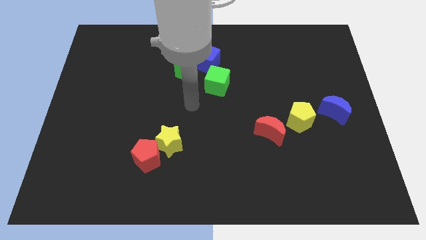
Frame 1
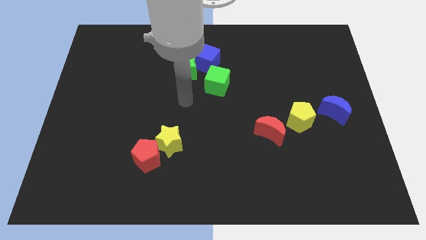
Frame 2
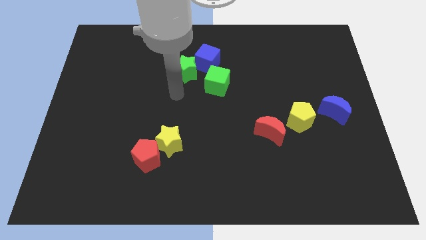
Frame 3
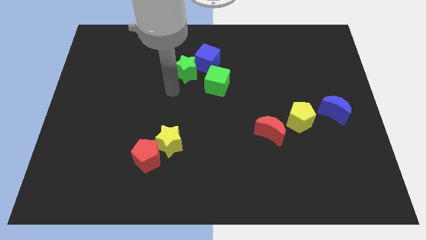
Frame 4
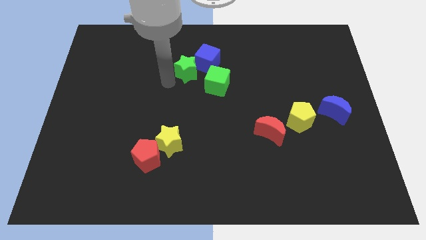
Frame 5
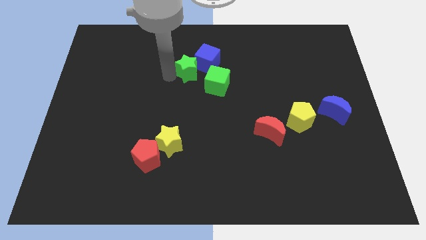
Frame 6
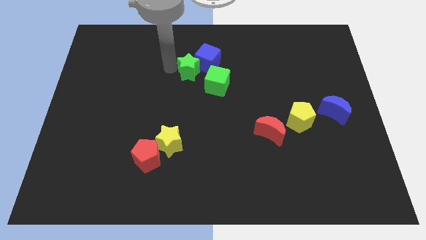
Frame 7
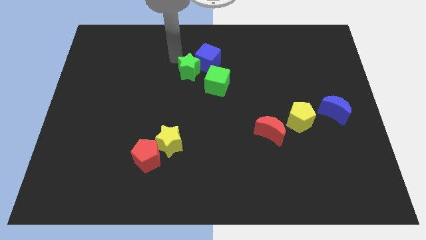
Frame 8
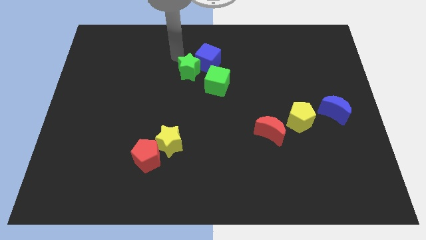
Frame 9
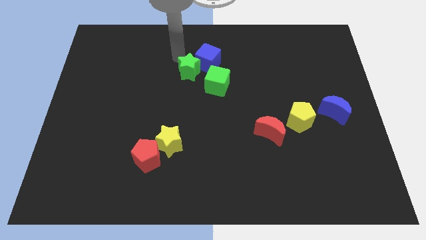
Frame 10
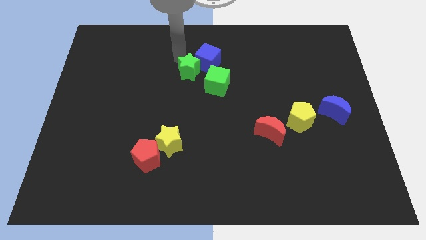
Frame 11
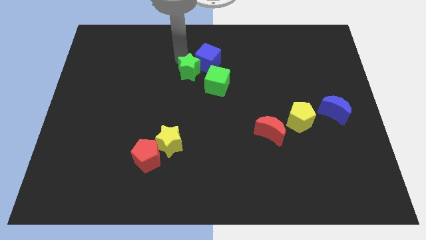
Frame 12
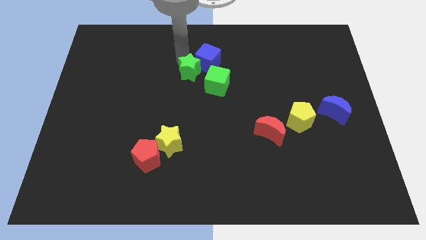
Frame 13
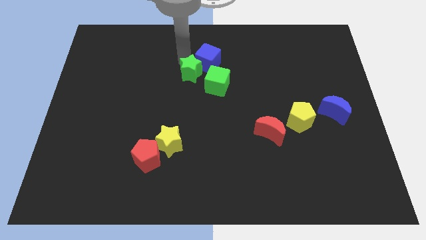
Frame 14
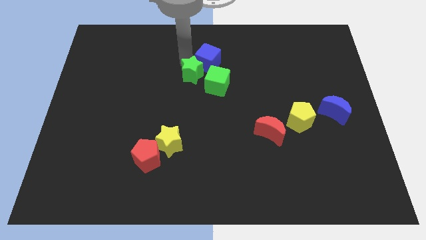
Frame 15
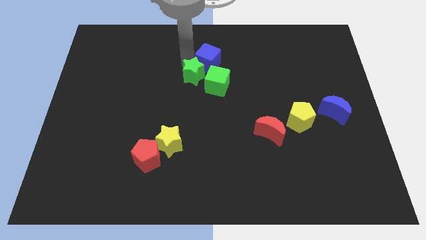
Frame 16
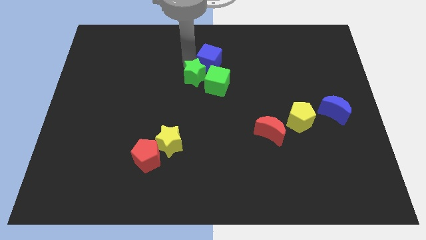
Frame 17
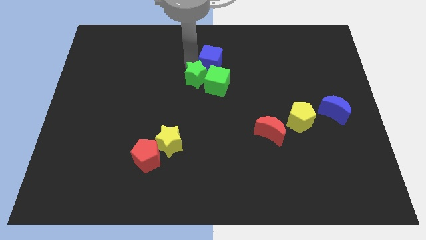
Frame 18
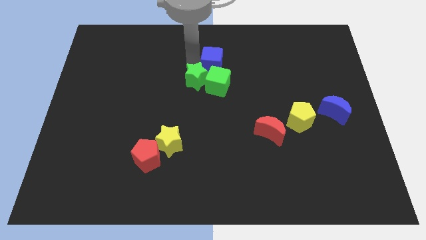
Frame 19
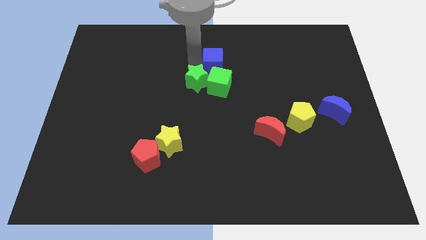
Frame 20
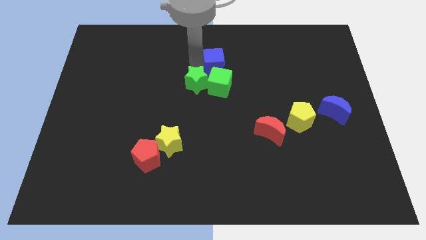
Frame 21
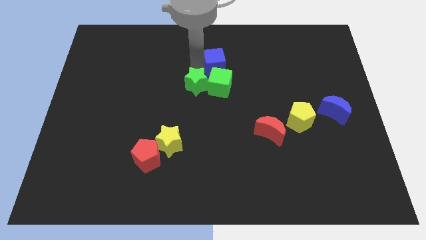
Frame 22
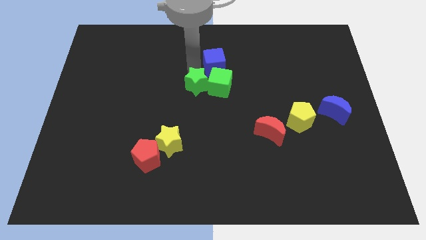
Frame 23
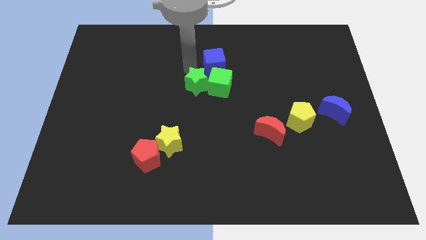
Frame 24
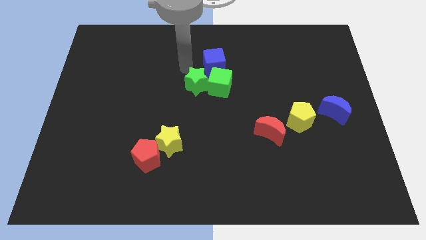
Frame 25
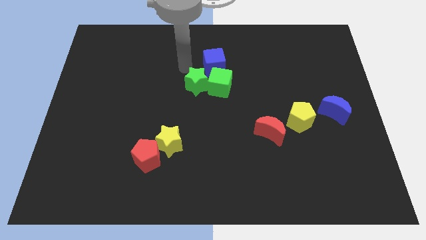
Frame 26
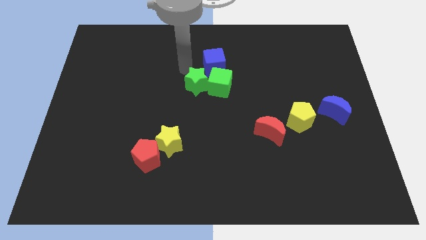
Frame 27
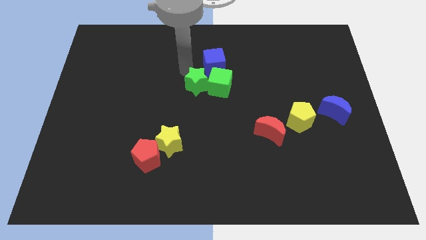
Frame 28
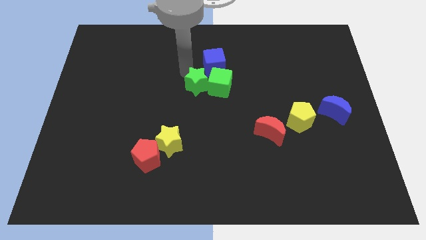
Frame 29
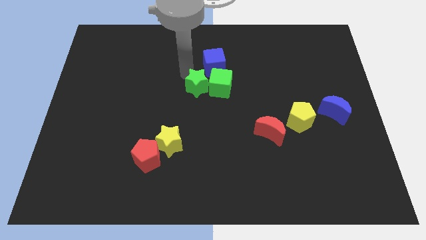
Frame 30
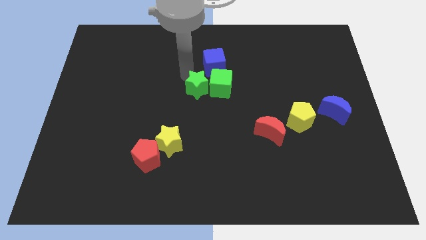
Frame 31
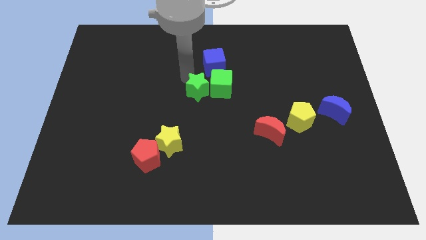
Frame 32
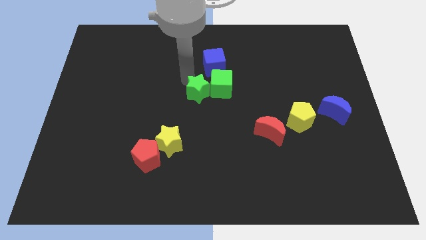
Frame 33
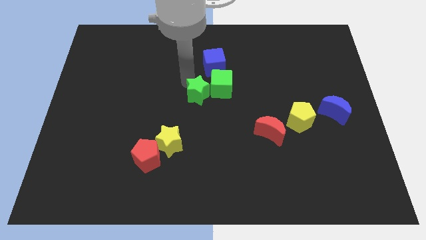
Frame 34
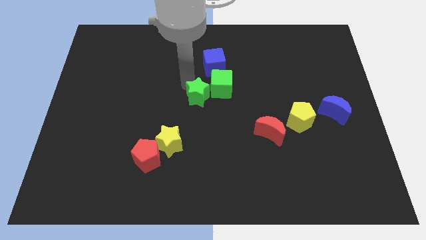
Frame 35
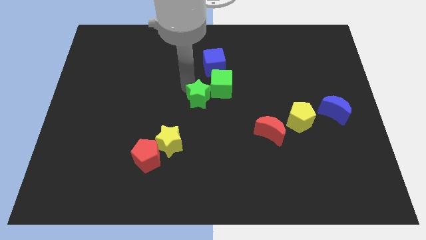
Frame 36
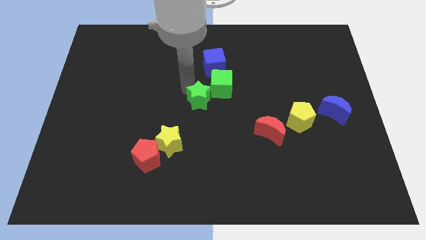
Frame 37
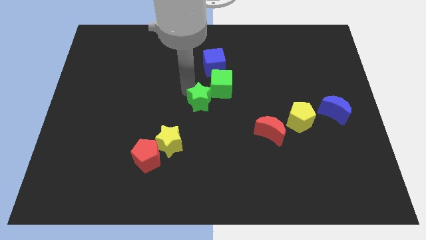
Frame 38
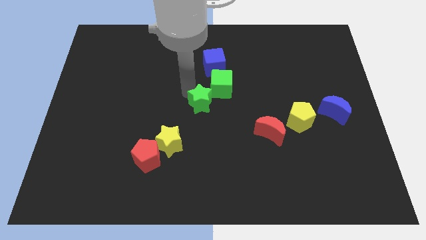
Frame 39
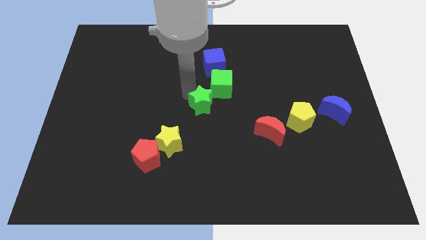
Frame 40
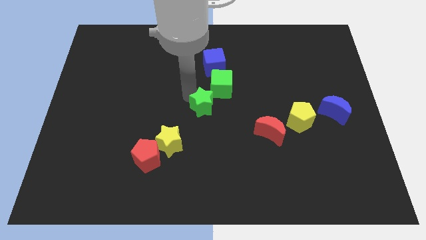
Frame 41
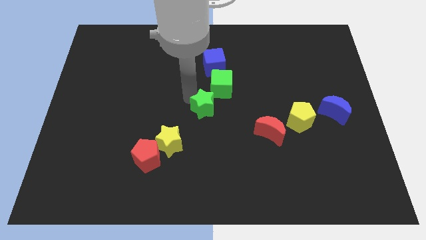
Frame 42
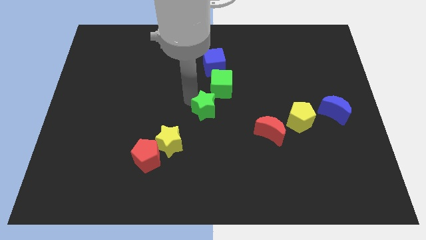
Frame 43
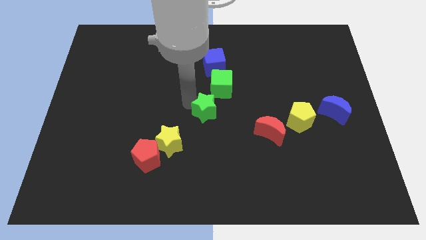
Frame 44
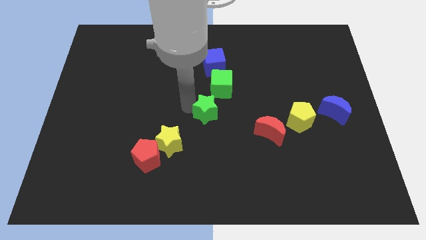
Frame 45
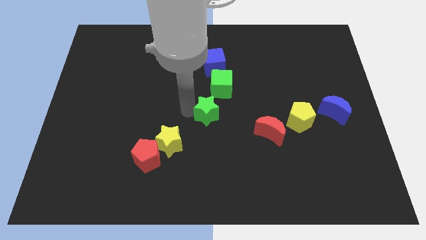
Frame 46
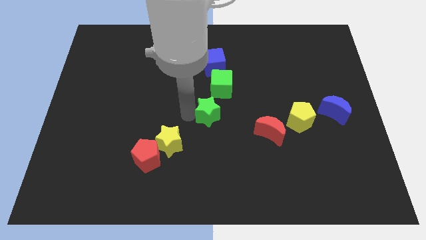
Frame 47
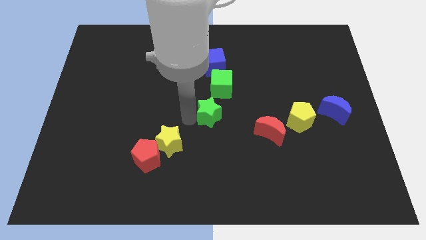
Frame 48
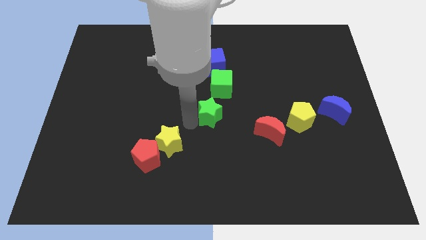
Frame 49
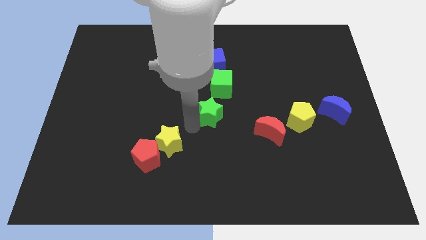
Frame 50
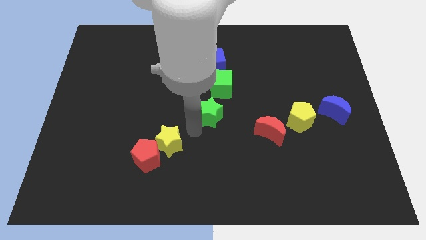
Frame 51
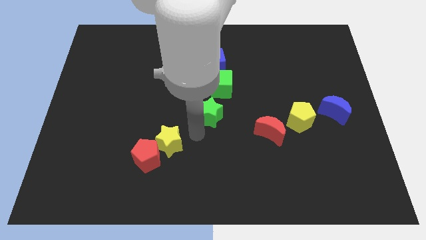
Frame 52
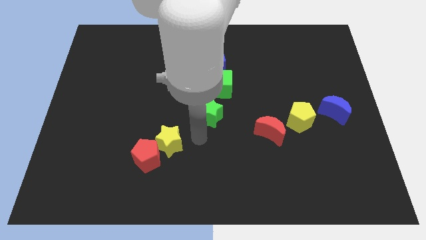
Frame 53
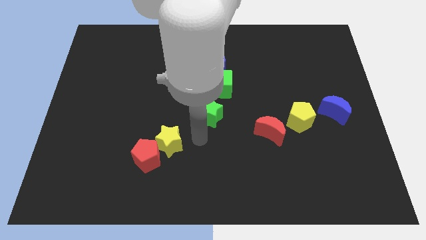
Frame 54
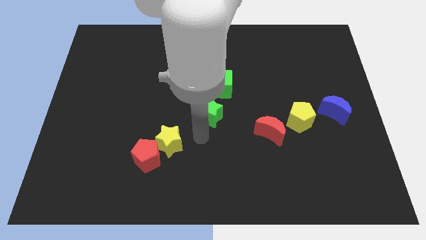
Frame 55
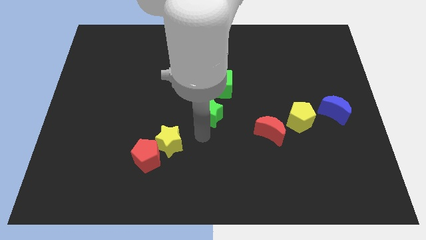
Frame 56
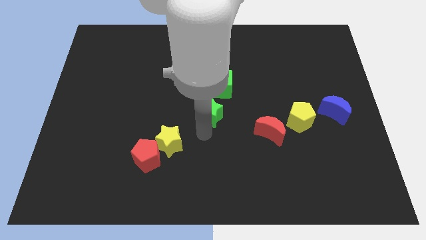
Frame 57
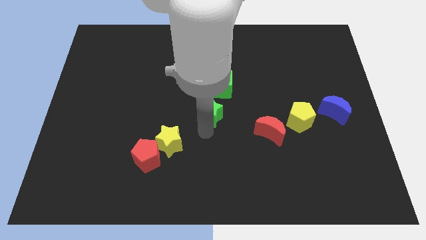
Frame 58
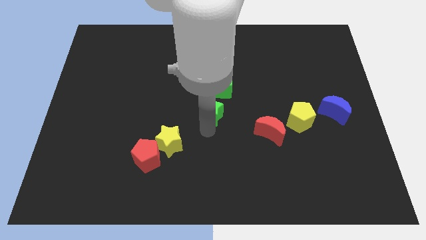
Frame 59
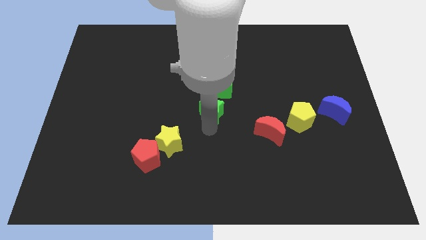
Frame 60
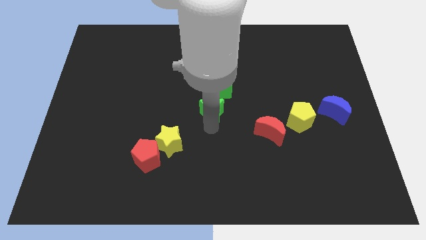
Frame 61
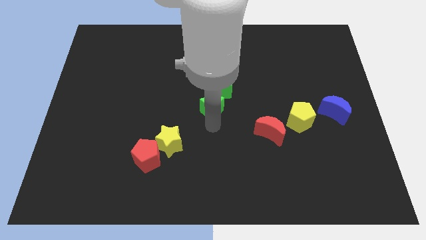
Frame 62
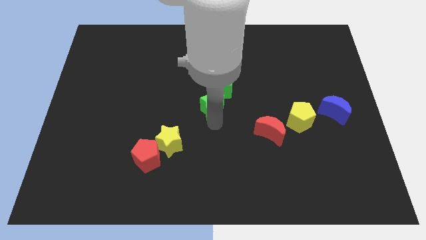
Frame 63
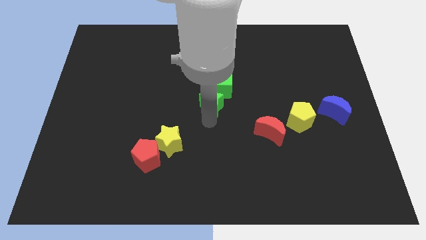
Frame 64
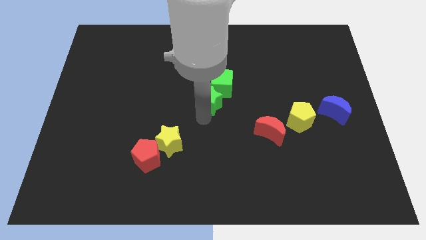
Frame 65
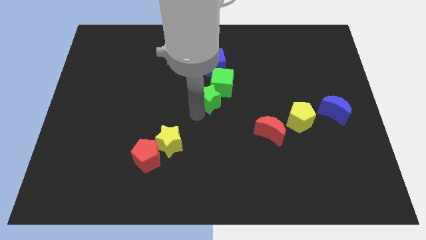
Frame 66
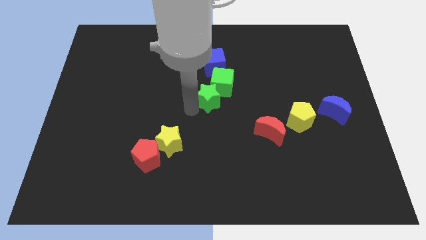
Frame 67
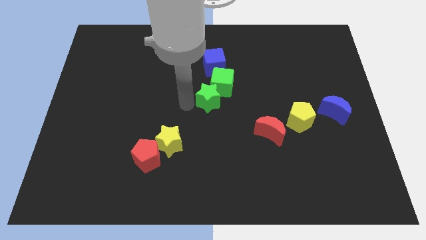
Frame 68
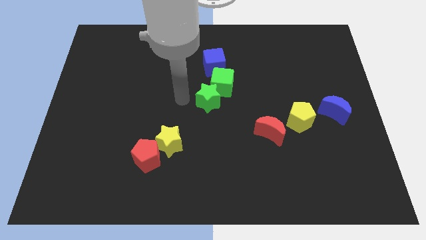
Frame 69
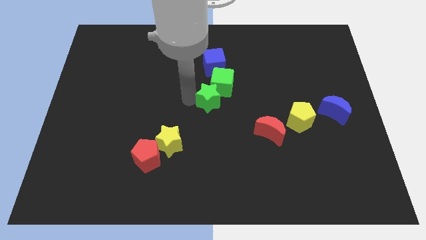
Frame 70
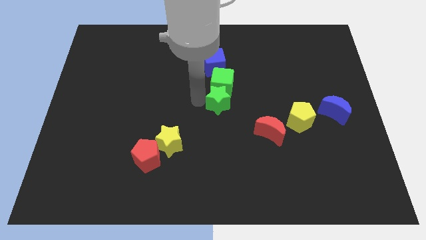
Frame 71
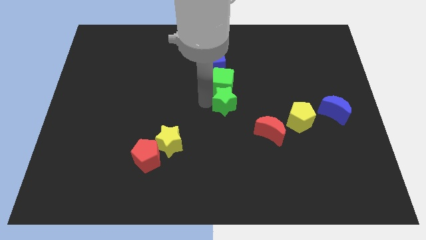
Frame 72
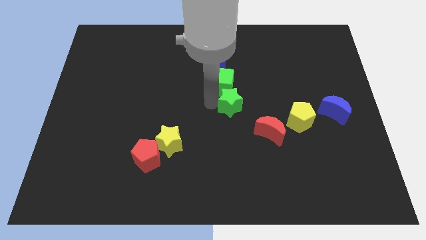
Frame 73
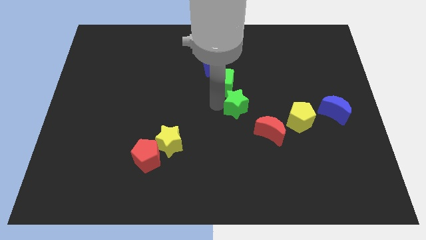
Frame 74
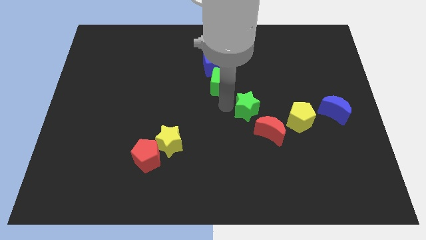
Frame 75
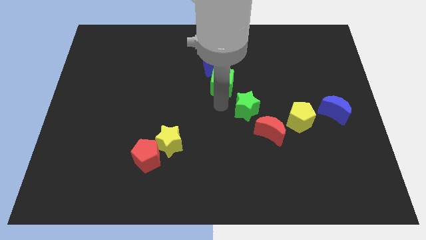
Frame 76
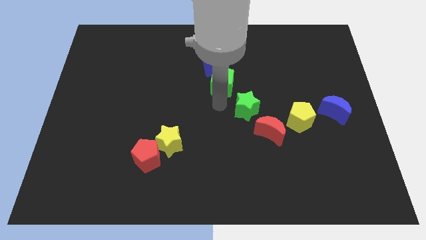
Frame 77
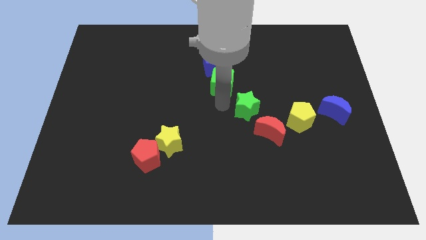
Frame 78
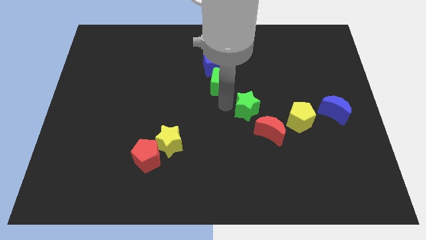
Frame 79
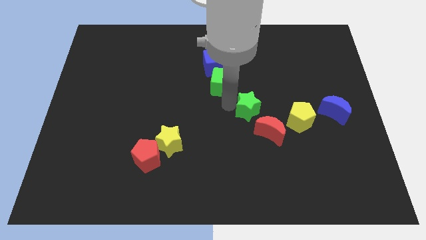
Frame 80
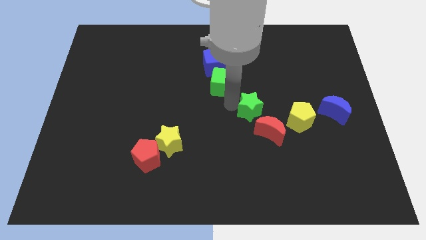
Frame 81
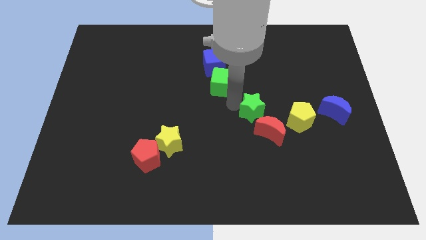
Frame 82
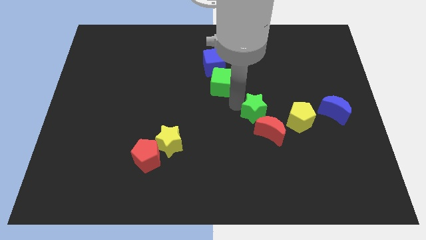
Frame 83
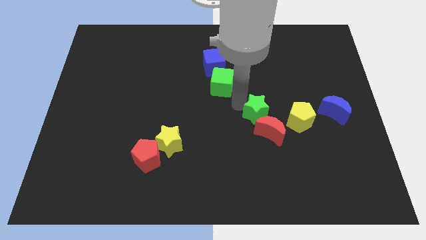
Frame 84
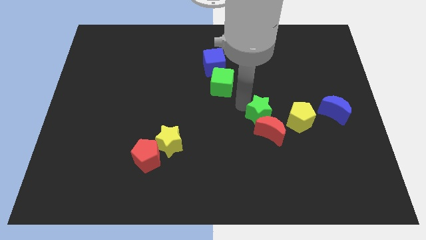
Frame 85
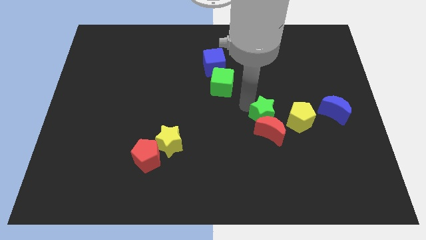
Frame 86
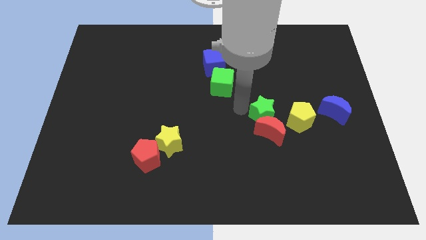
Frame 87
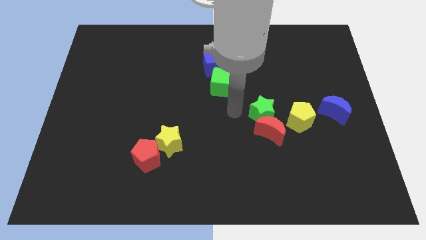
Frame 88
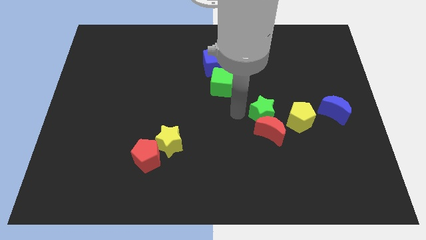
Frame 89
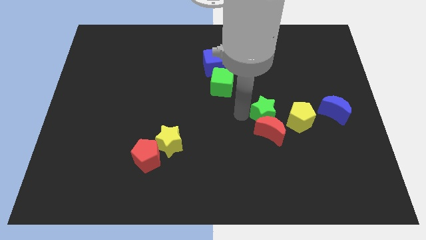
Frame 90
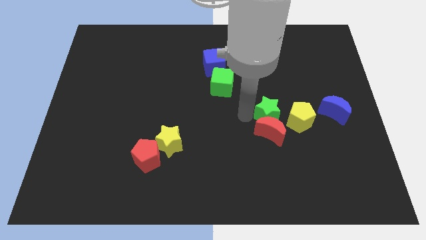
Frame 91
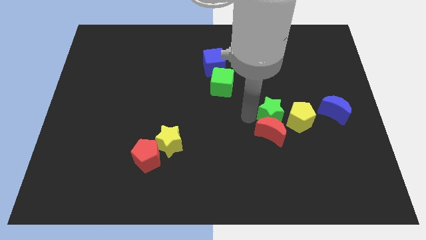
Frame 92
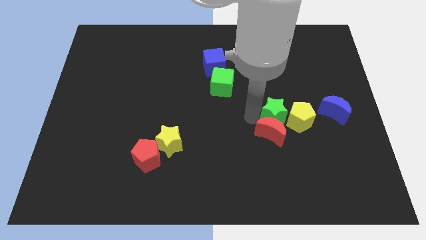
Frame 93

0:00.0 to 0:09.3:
move the green star towards the yellow pentagon
